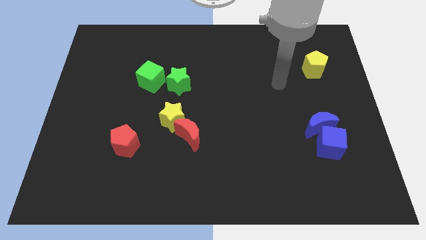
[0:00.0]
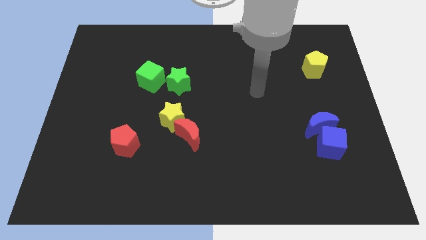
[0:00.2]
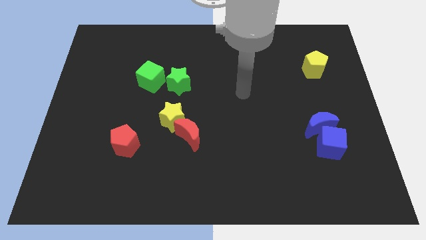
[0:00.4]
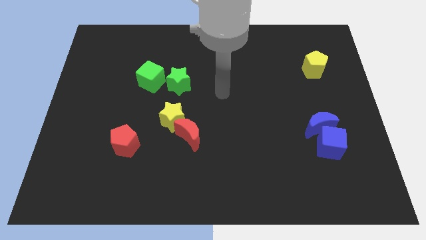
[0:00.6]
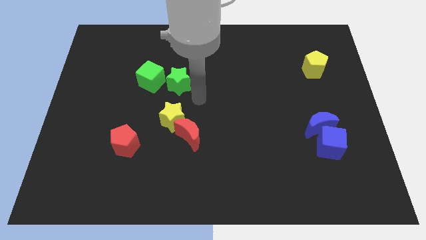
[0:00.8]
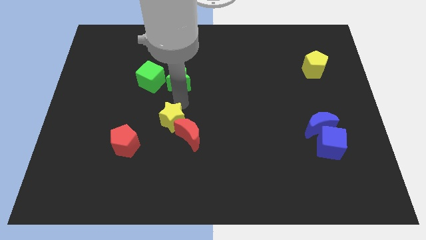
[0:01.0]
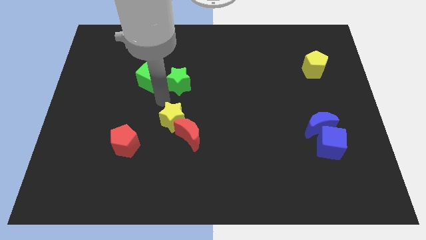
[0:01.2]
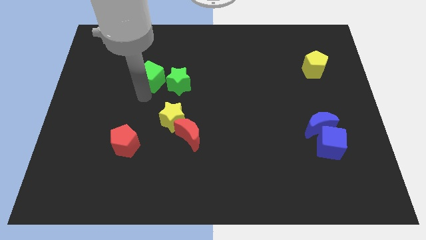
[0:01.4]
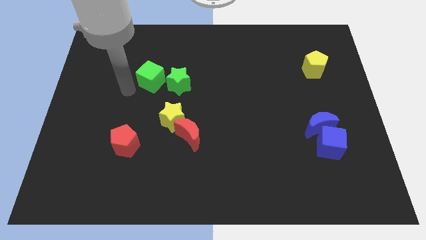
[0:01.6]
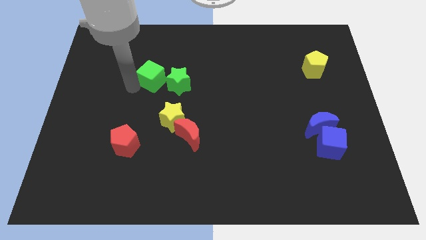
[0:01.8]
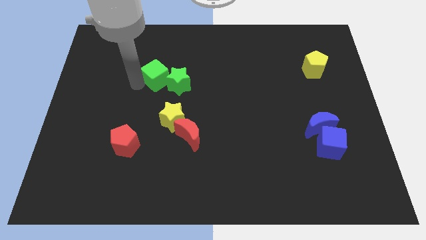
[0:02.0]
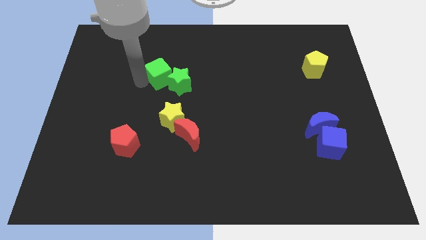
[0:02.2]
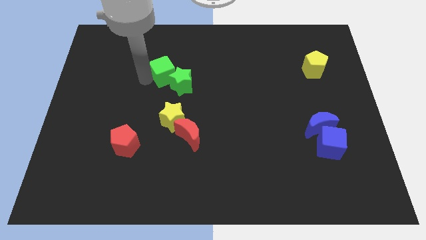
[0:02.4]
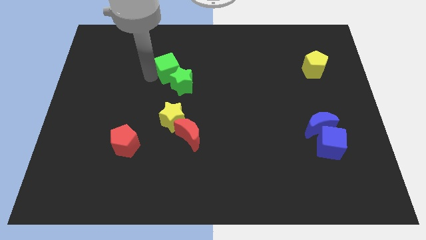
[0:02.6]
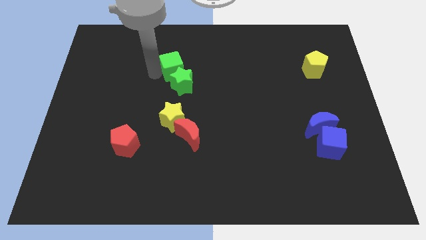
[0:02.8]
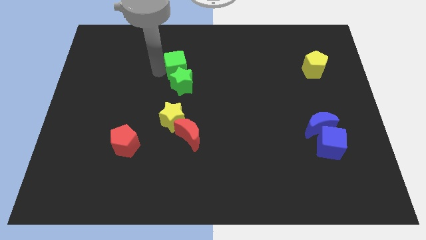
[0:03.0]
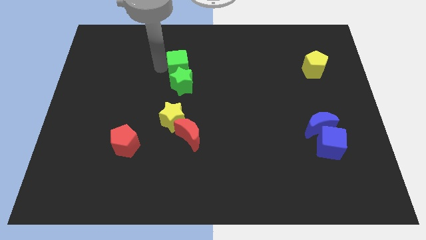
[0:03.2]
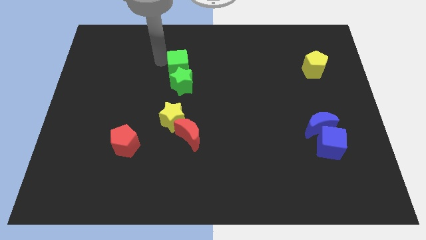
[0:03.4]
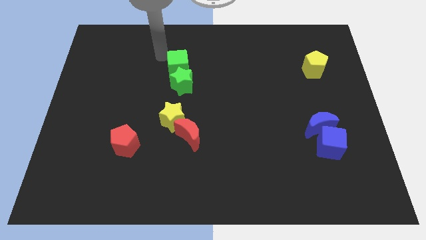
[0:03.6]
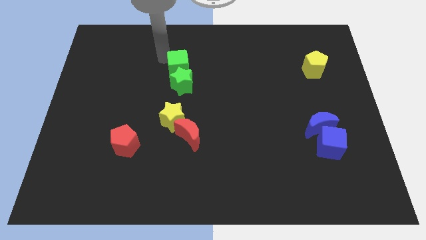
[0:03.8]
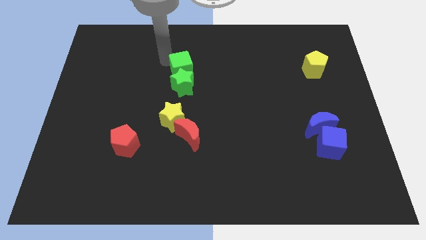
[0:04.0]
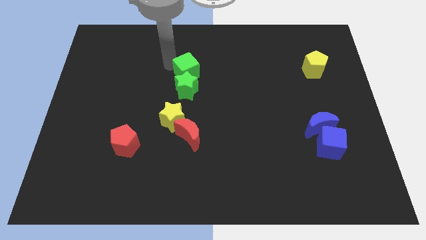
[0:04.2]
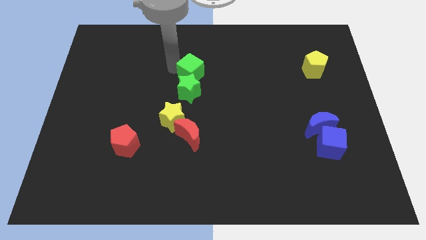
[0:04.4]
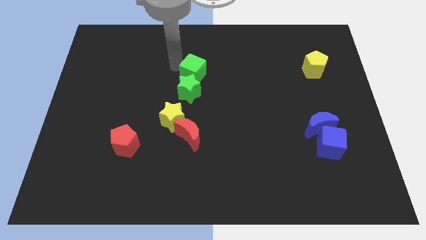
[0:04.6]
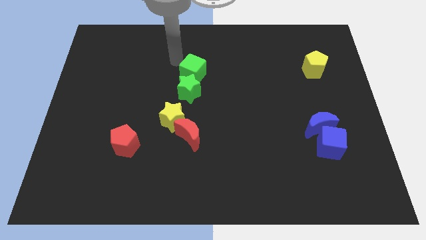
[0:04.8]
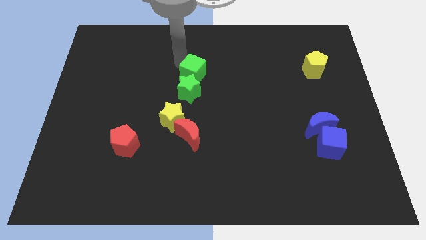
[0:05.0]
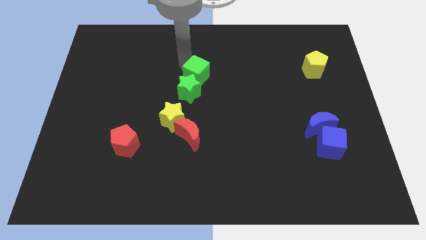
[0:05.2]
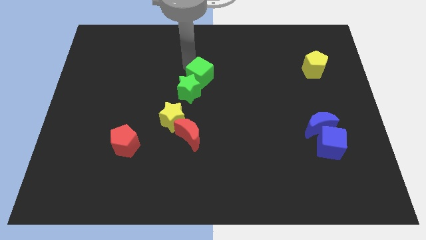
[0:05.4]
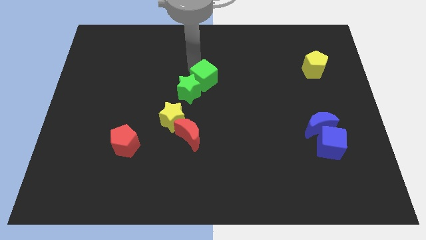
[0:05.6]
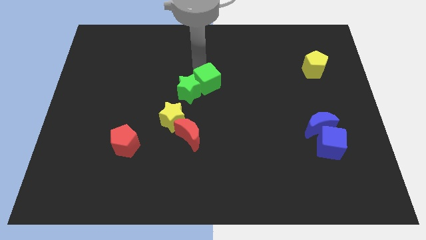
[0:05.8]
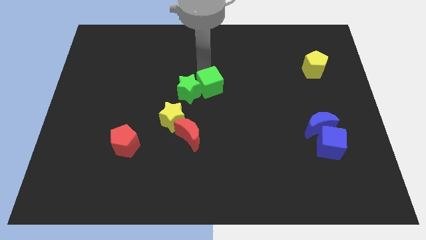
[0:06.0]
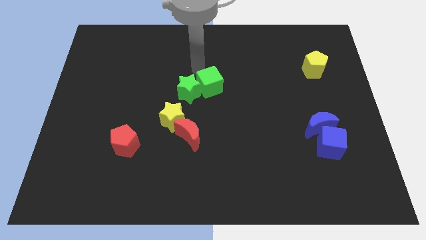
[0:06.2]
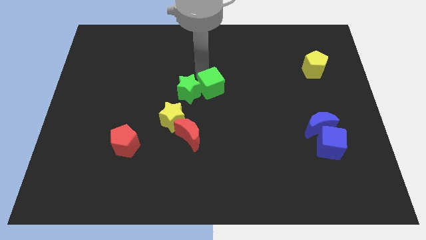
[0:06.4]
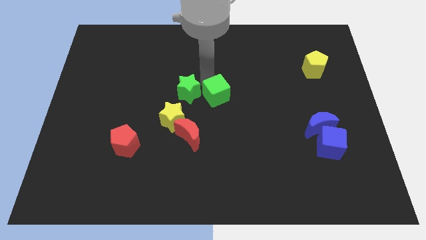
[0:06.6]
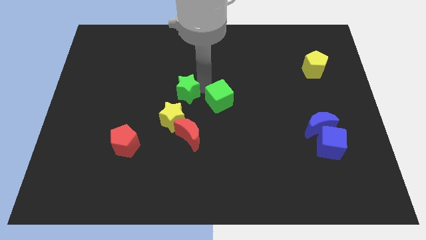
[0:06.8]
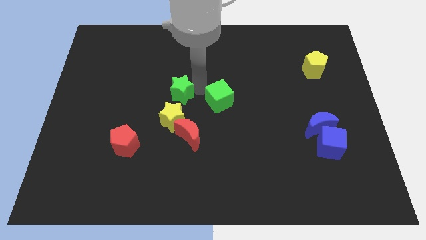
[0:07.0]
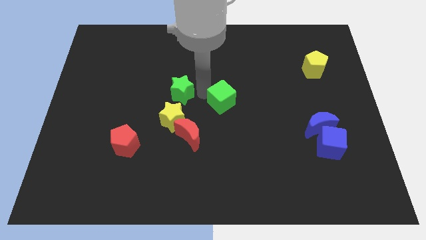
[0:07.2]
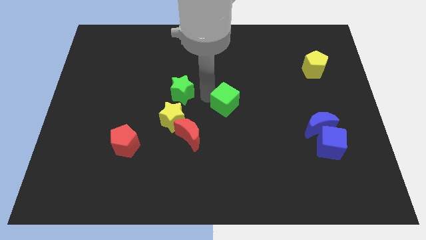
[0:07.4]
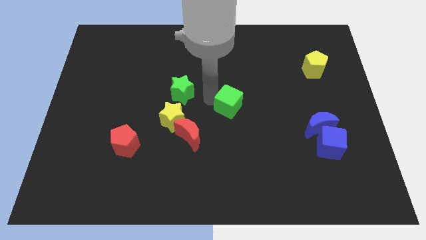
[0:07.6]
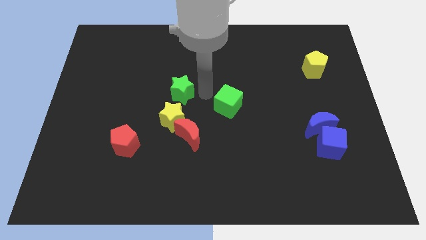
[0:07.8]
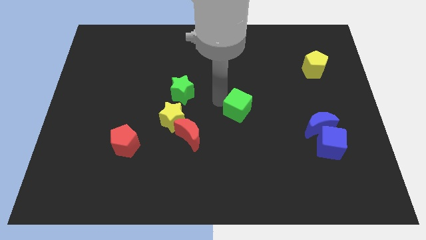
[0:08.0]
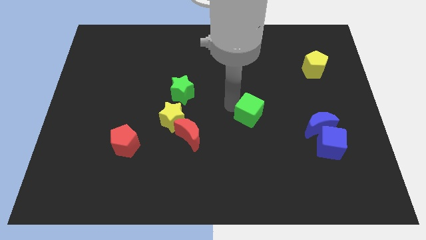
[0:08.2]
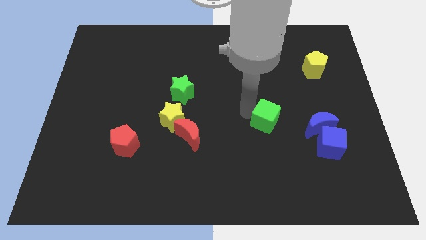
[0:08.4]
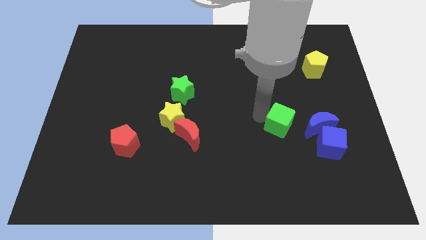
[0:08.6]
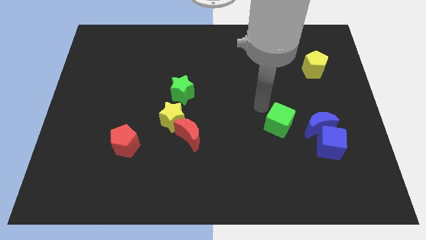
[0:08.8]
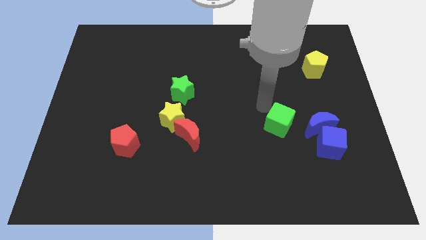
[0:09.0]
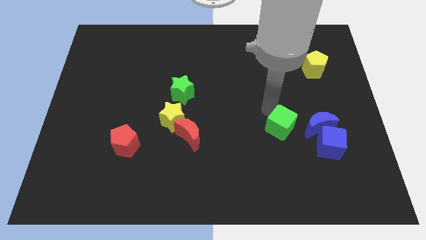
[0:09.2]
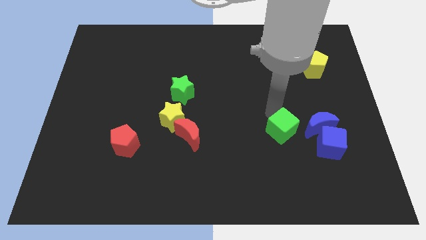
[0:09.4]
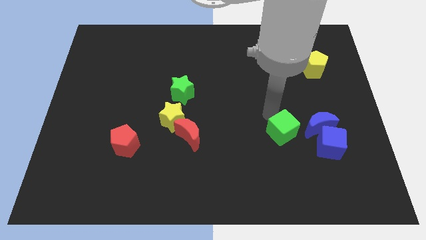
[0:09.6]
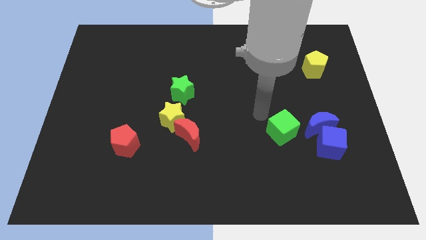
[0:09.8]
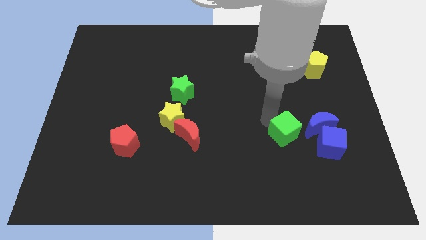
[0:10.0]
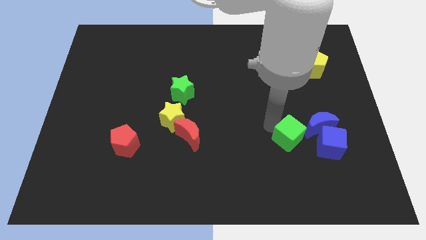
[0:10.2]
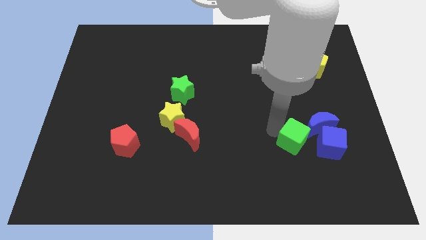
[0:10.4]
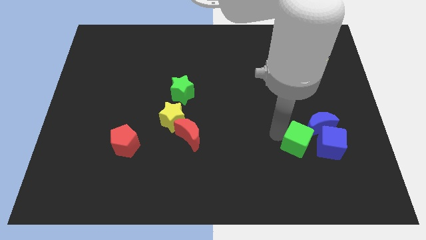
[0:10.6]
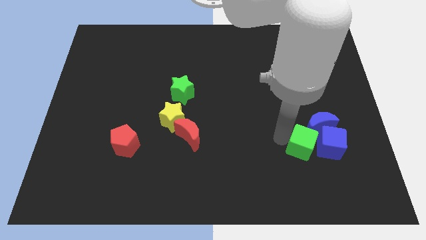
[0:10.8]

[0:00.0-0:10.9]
push the green cube next to the blue cube

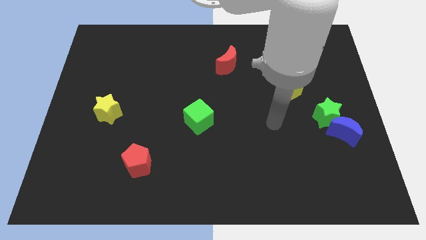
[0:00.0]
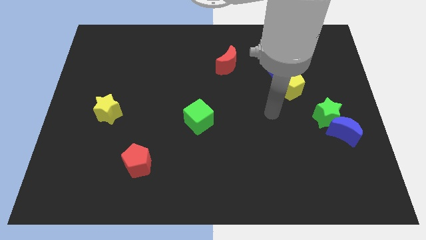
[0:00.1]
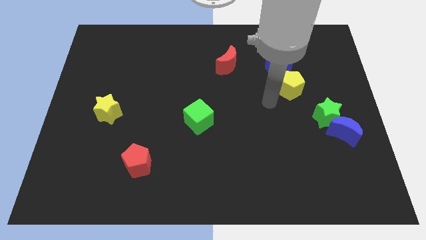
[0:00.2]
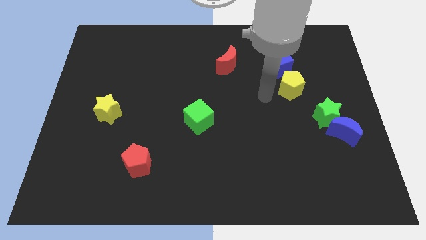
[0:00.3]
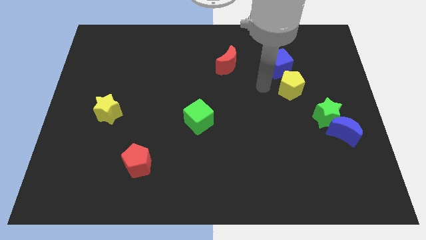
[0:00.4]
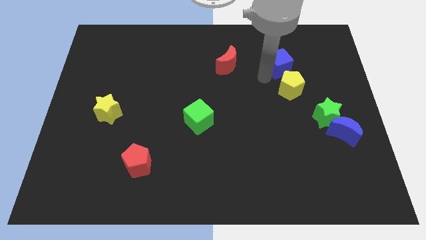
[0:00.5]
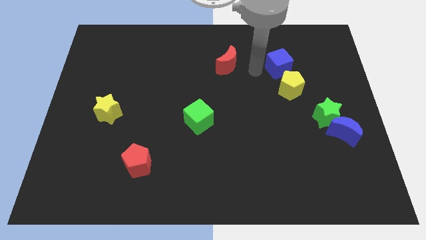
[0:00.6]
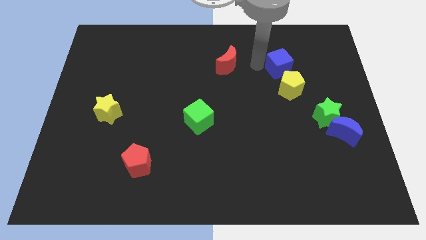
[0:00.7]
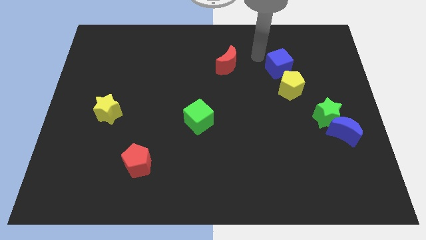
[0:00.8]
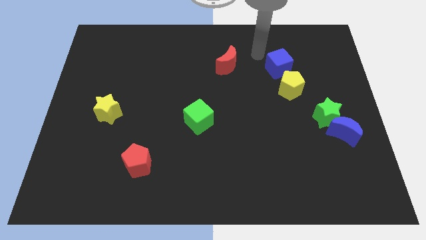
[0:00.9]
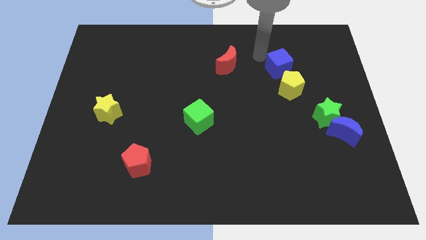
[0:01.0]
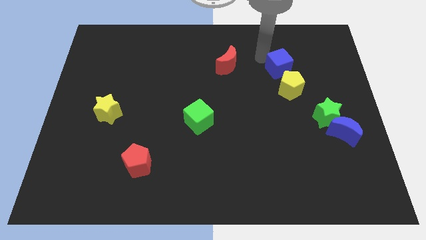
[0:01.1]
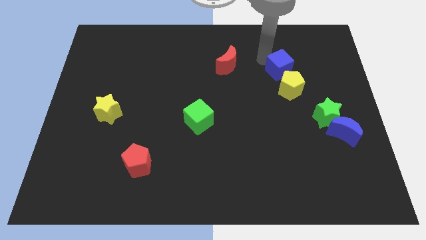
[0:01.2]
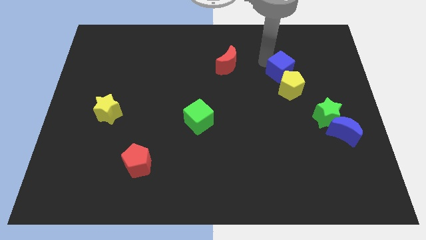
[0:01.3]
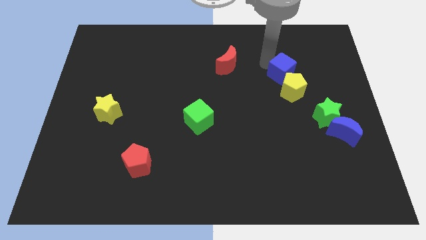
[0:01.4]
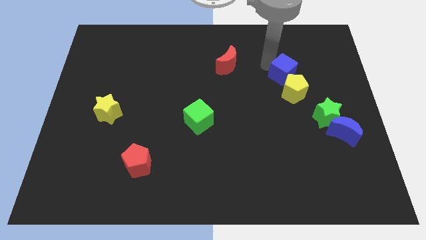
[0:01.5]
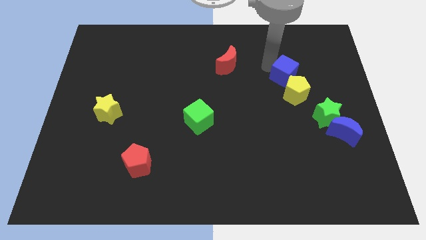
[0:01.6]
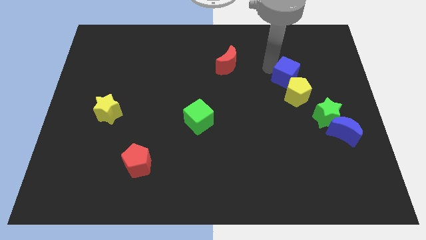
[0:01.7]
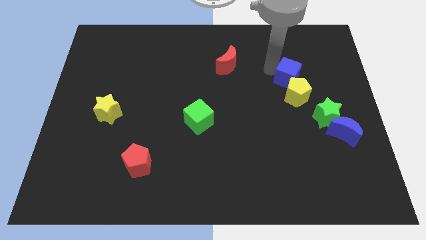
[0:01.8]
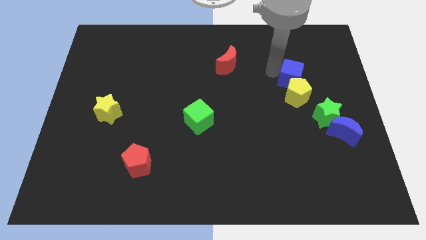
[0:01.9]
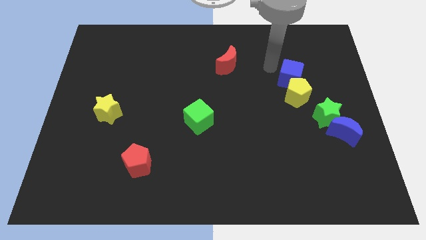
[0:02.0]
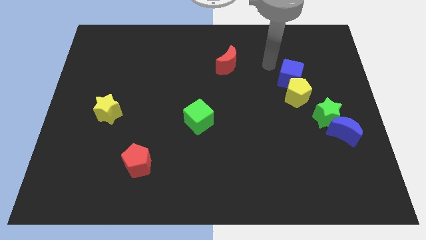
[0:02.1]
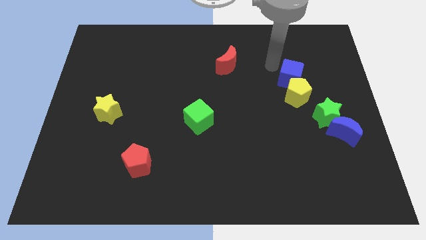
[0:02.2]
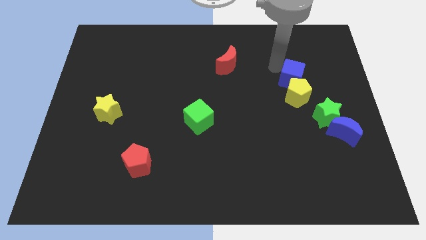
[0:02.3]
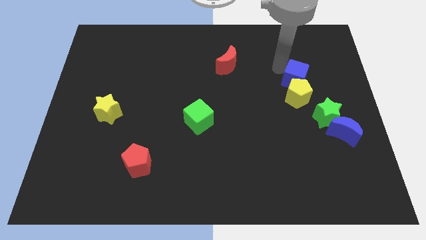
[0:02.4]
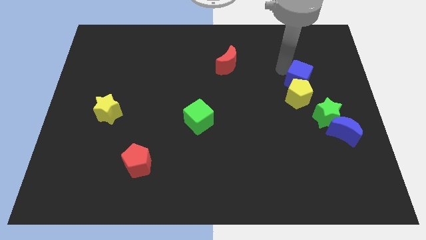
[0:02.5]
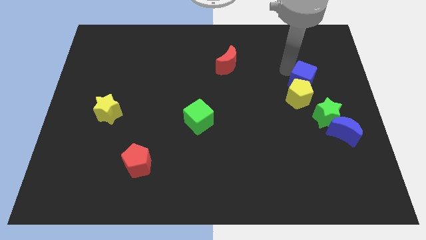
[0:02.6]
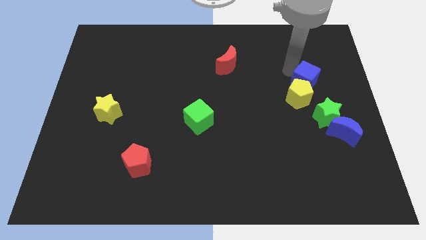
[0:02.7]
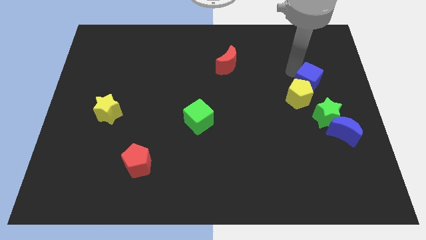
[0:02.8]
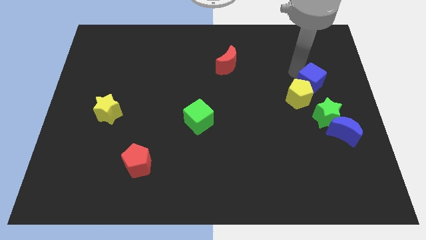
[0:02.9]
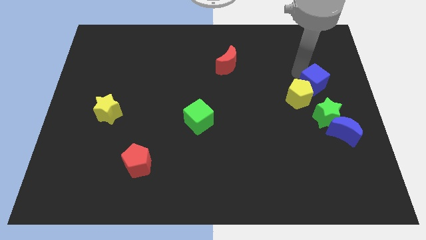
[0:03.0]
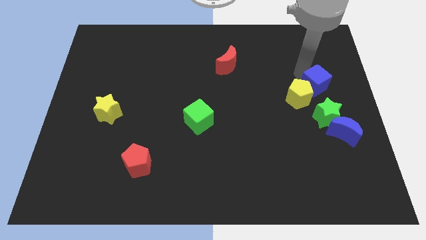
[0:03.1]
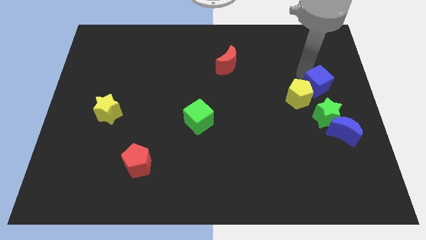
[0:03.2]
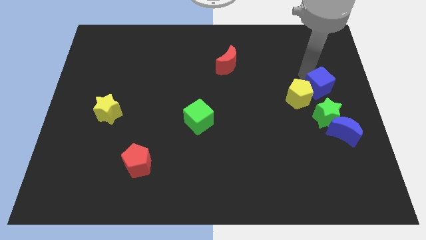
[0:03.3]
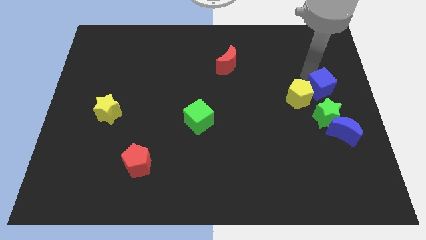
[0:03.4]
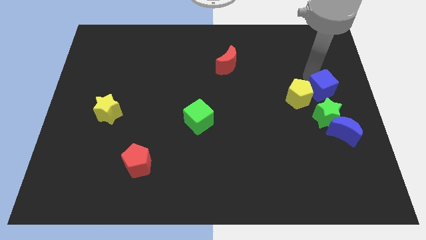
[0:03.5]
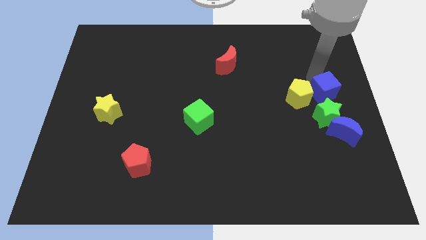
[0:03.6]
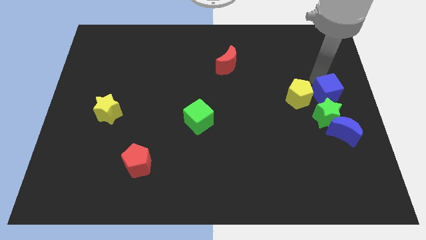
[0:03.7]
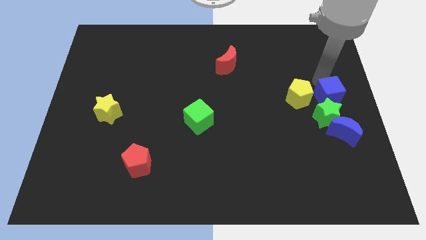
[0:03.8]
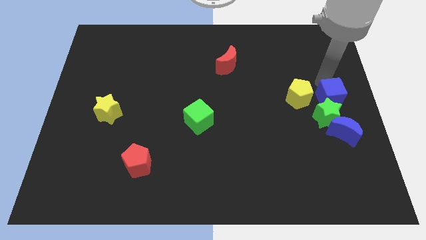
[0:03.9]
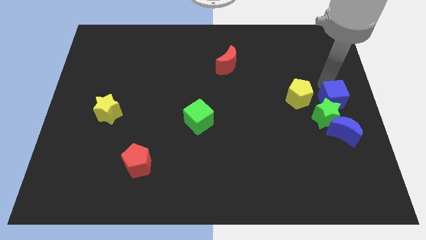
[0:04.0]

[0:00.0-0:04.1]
slide the blue cube close to the green star
